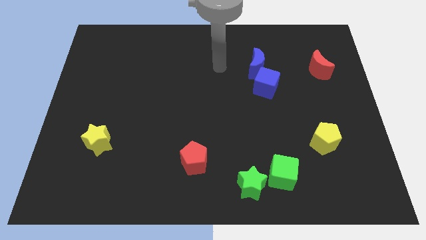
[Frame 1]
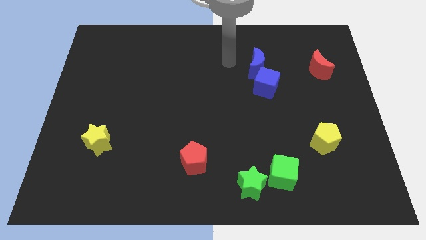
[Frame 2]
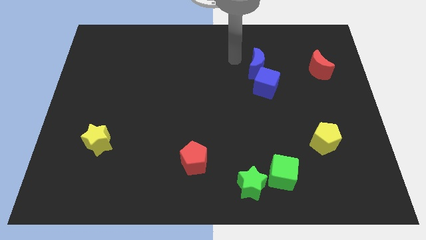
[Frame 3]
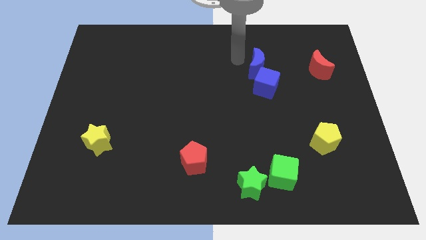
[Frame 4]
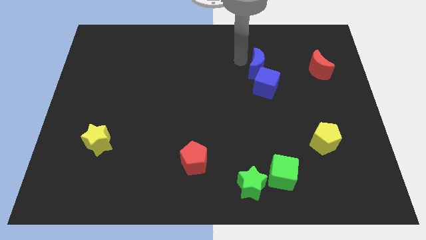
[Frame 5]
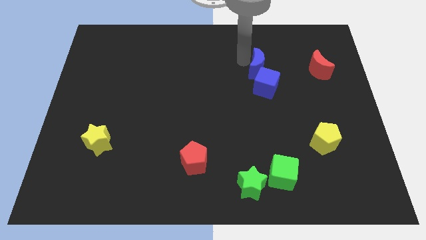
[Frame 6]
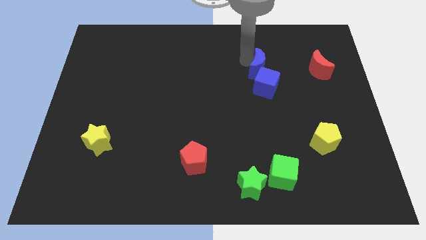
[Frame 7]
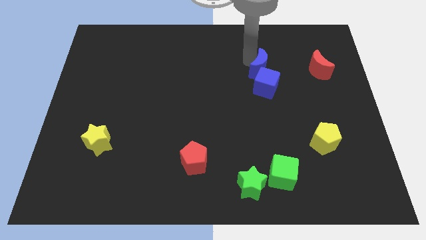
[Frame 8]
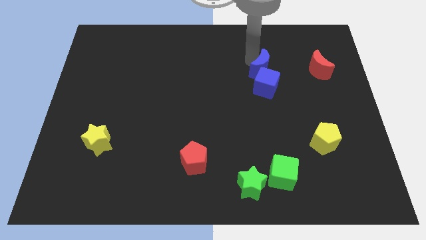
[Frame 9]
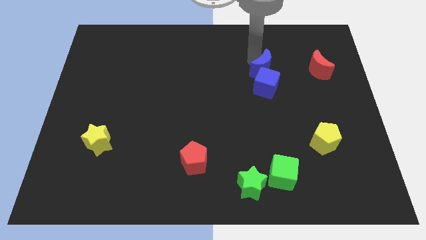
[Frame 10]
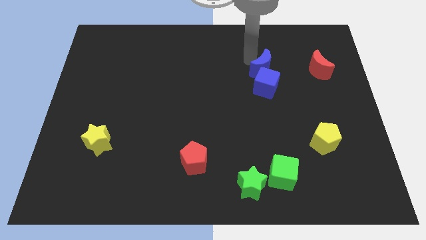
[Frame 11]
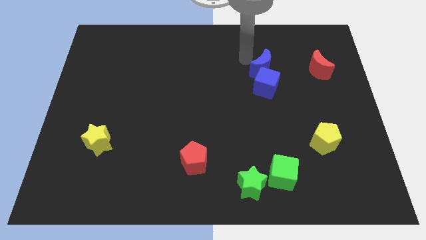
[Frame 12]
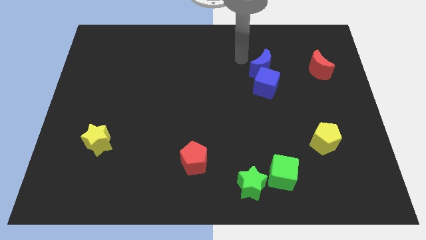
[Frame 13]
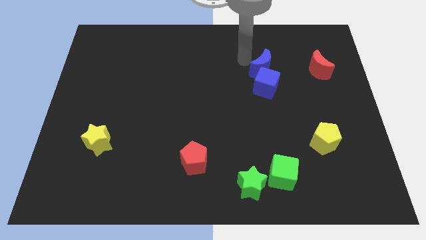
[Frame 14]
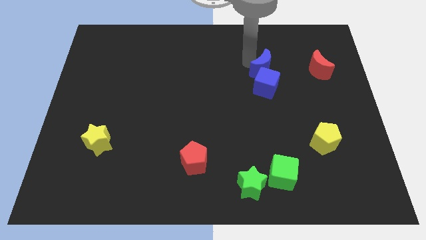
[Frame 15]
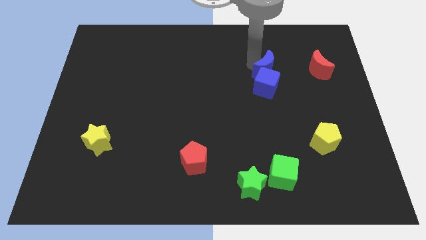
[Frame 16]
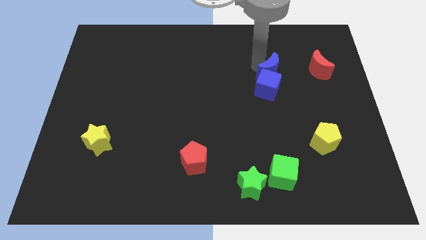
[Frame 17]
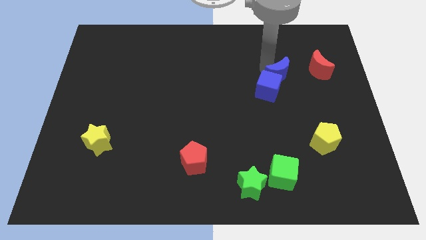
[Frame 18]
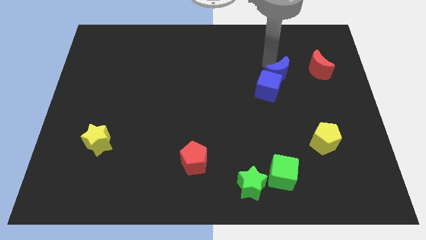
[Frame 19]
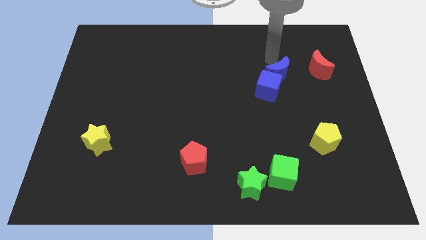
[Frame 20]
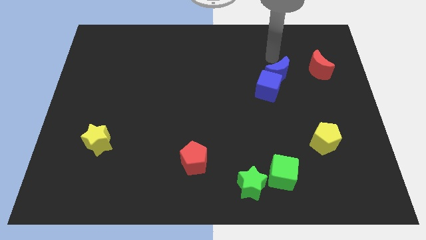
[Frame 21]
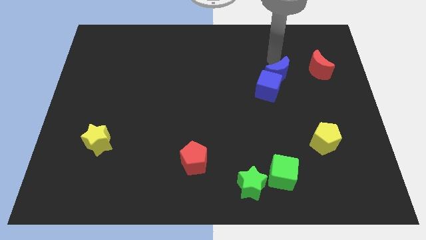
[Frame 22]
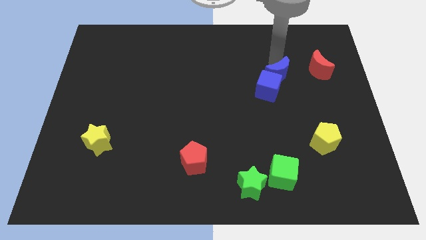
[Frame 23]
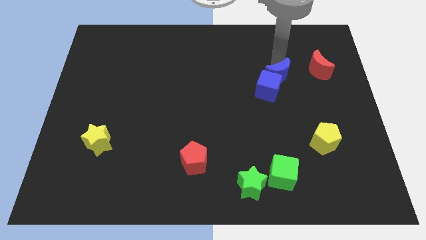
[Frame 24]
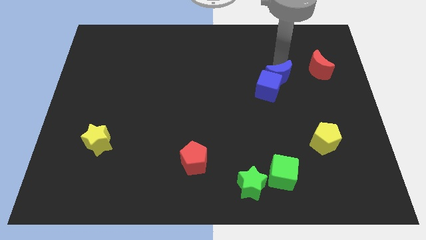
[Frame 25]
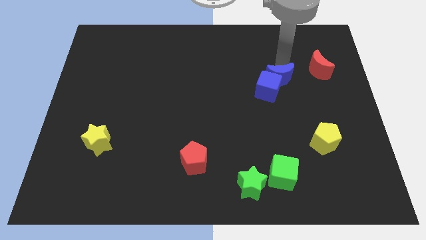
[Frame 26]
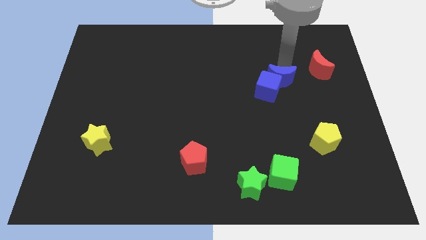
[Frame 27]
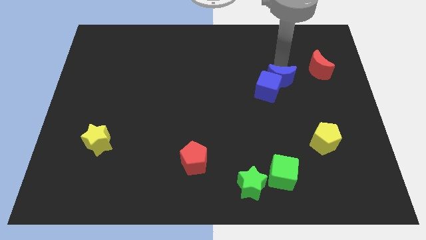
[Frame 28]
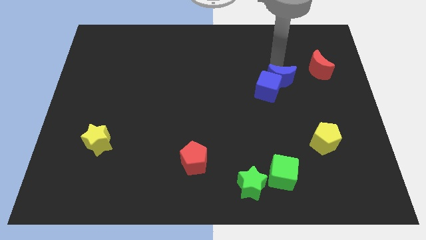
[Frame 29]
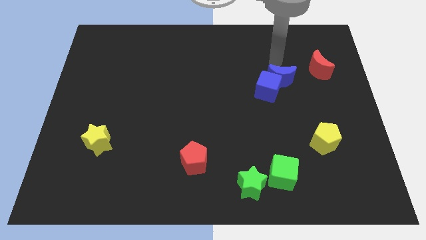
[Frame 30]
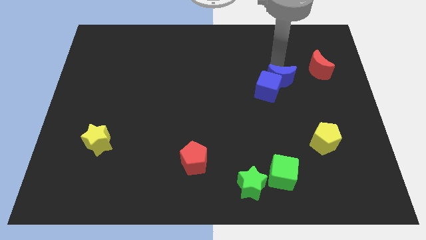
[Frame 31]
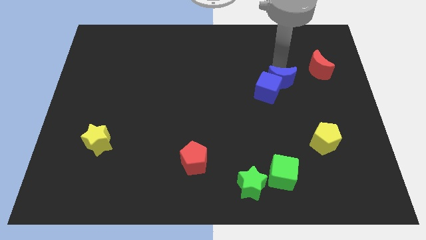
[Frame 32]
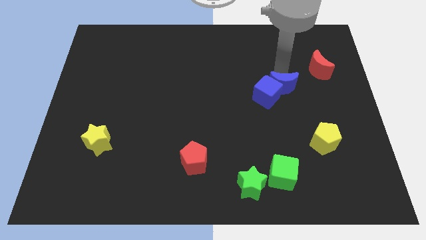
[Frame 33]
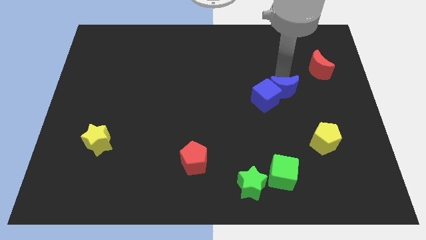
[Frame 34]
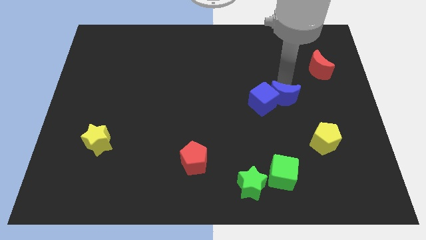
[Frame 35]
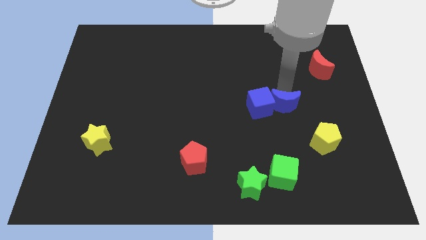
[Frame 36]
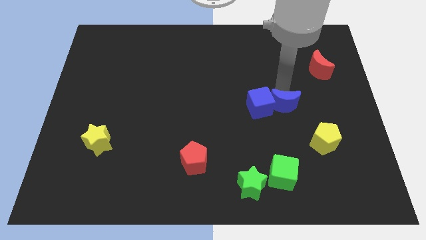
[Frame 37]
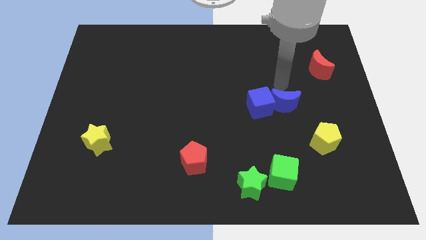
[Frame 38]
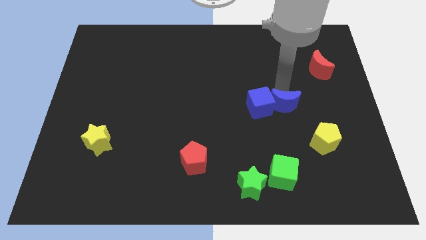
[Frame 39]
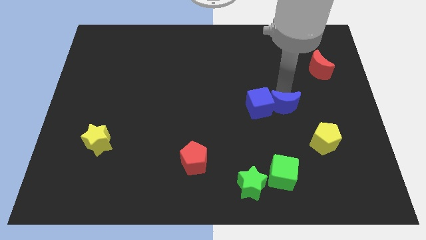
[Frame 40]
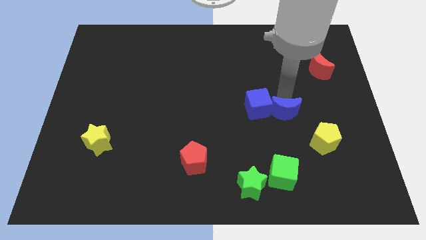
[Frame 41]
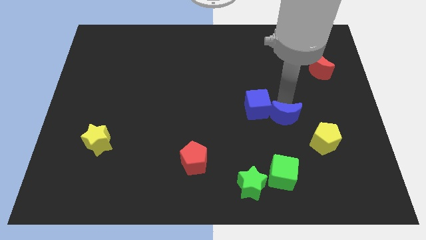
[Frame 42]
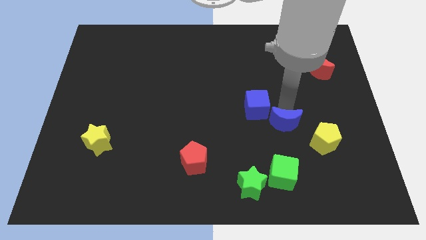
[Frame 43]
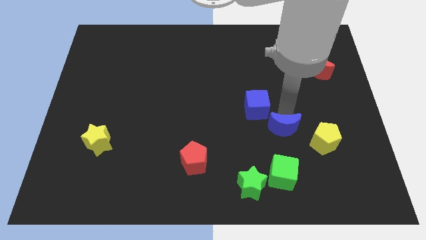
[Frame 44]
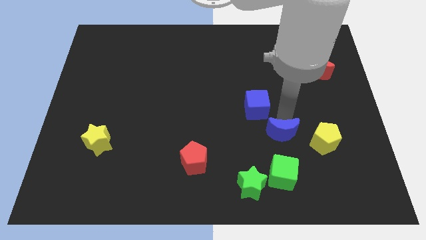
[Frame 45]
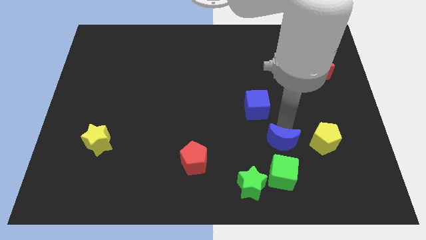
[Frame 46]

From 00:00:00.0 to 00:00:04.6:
move the blue moon to the top right side of the green star

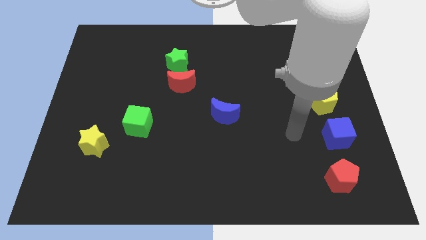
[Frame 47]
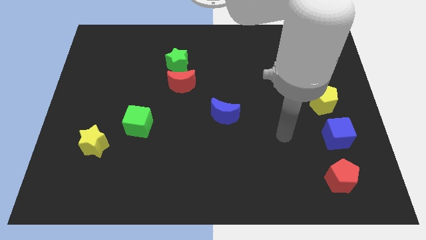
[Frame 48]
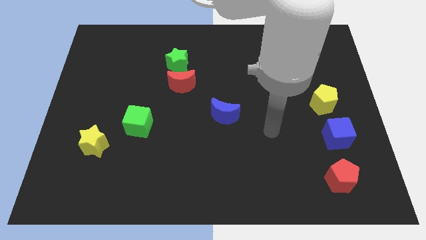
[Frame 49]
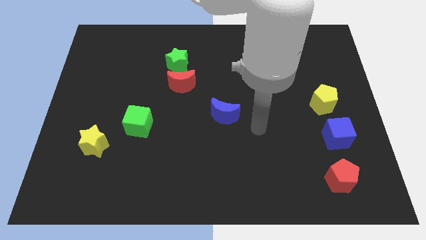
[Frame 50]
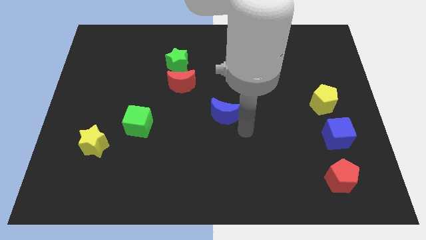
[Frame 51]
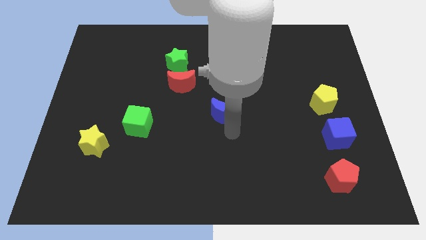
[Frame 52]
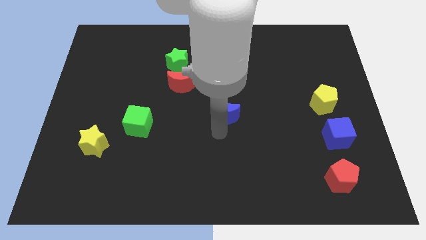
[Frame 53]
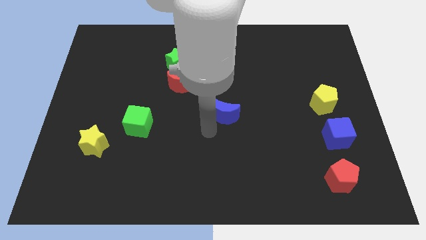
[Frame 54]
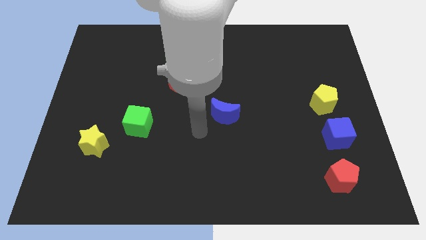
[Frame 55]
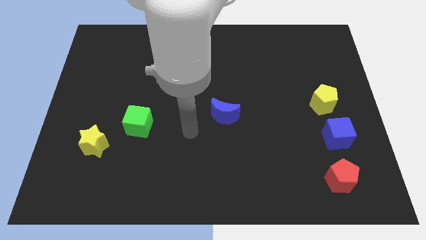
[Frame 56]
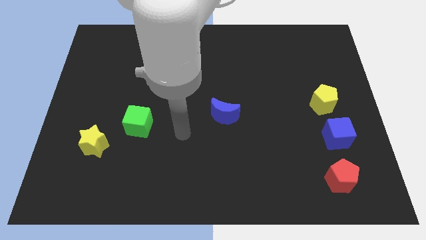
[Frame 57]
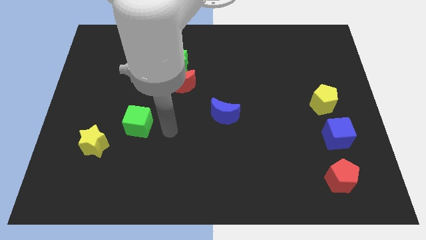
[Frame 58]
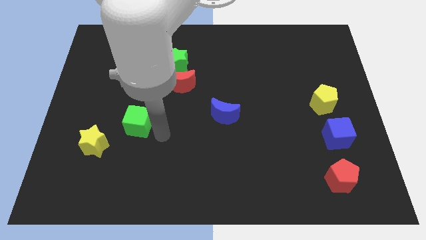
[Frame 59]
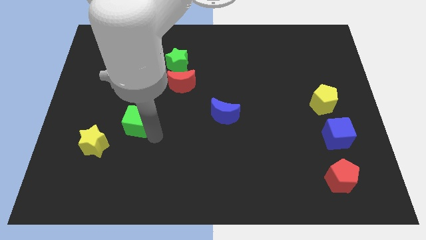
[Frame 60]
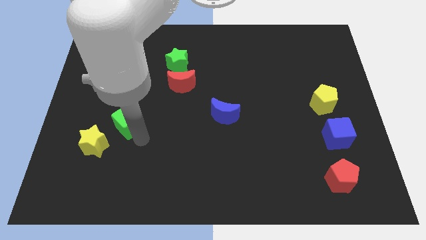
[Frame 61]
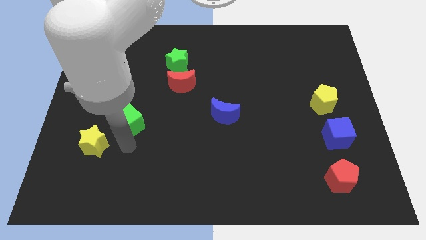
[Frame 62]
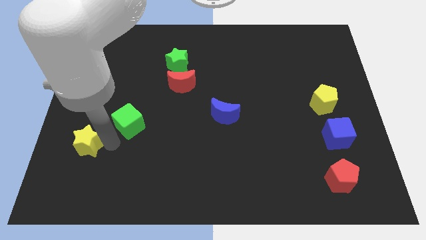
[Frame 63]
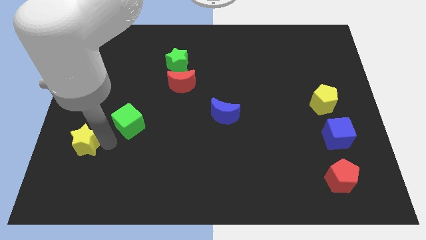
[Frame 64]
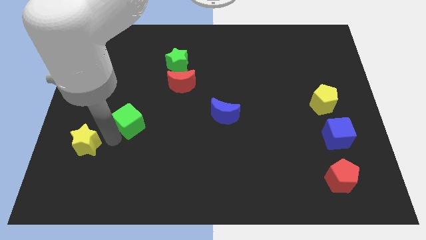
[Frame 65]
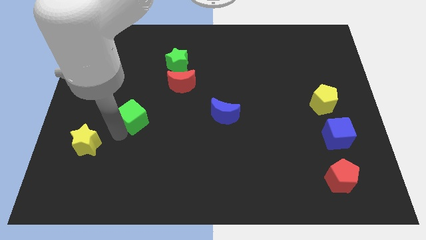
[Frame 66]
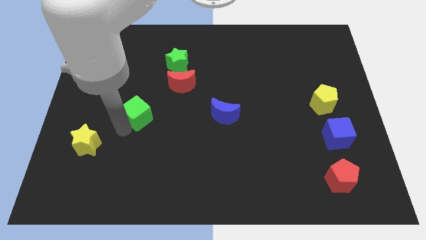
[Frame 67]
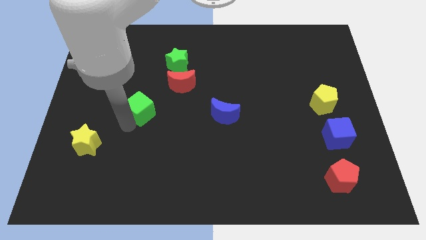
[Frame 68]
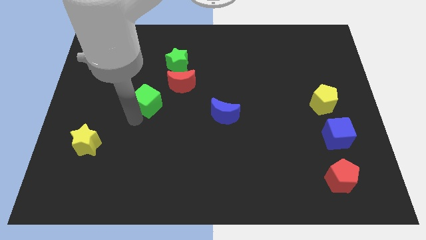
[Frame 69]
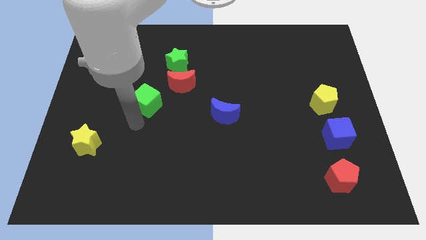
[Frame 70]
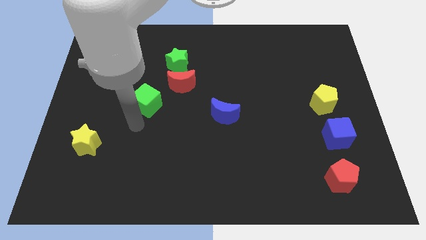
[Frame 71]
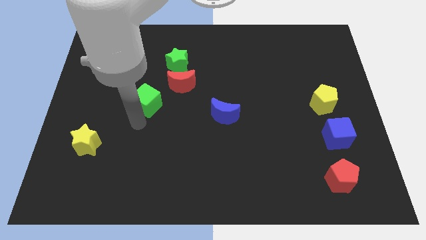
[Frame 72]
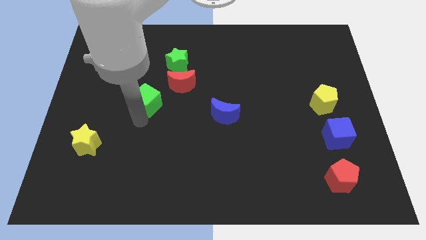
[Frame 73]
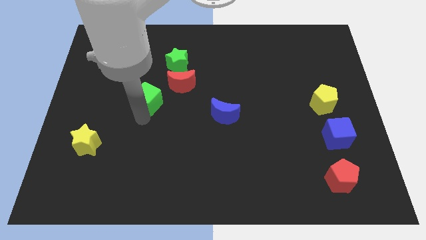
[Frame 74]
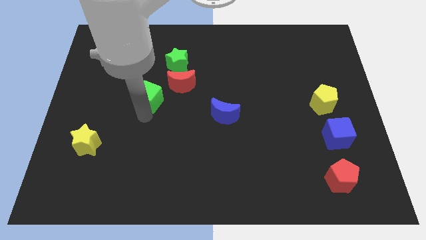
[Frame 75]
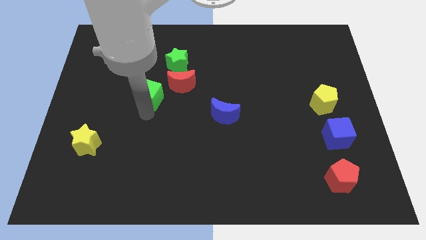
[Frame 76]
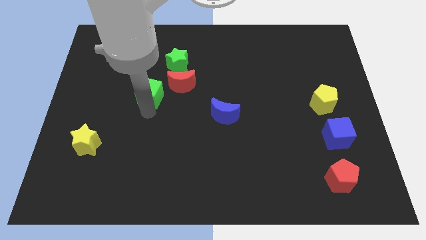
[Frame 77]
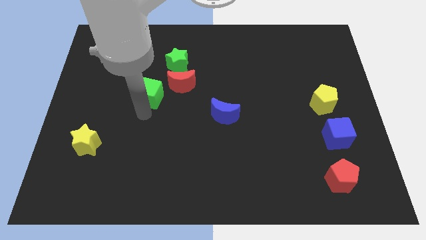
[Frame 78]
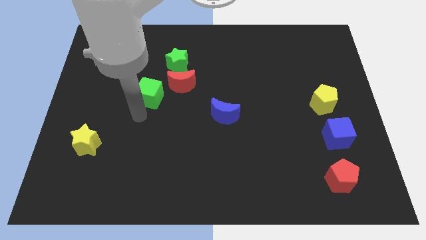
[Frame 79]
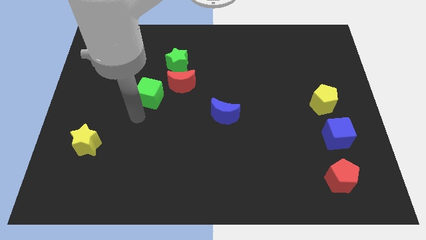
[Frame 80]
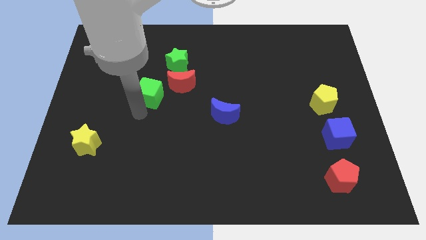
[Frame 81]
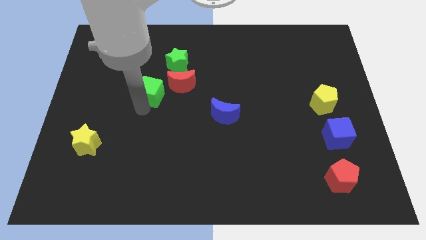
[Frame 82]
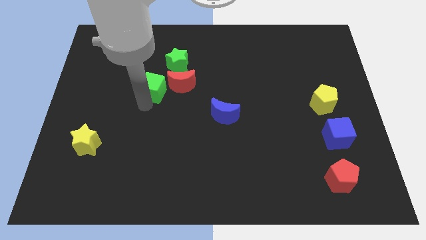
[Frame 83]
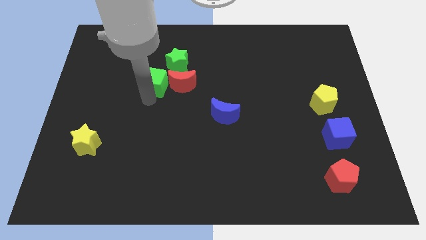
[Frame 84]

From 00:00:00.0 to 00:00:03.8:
slide the green cube diagonally up and to the left of the red moon
